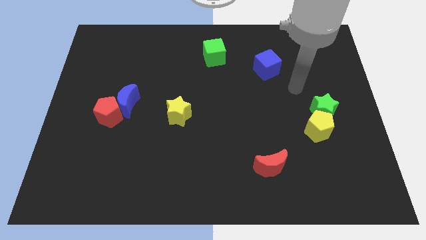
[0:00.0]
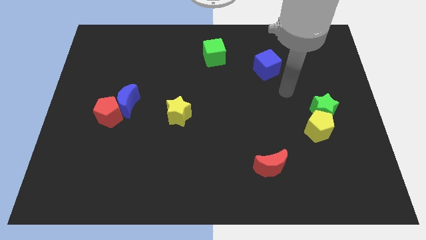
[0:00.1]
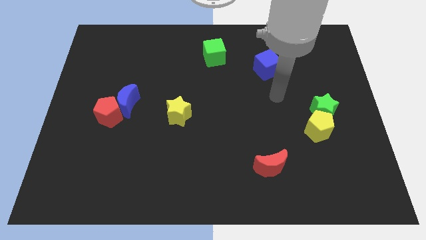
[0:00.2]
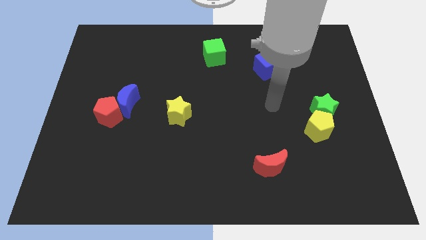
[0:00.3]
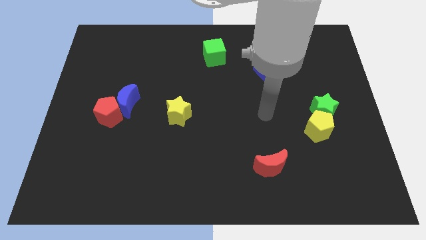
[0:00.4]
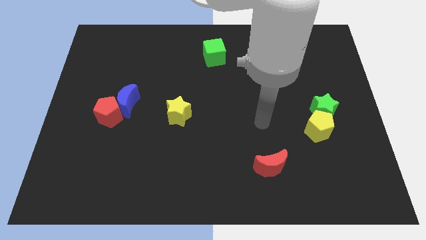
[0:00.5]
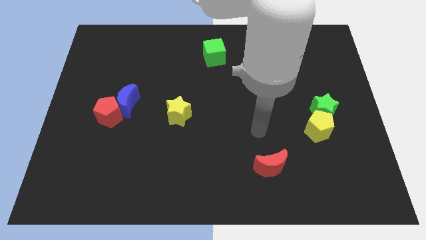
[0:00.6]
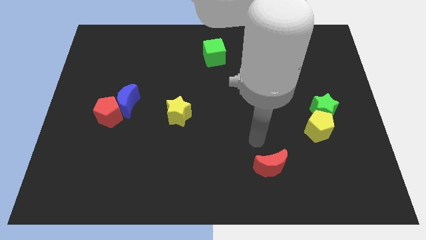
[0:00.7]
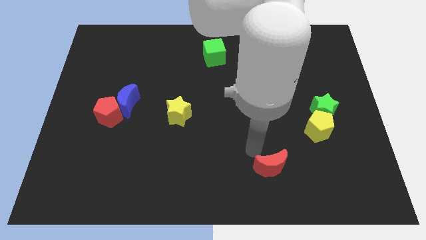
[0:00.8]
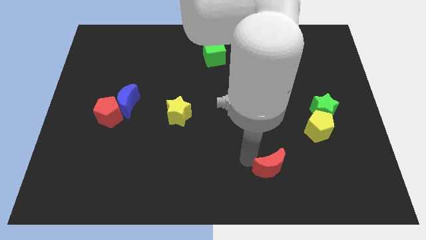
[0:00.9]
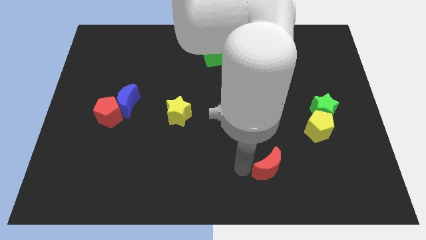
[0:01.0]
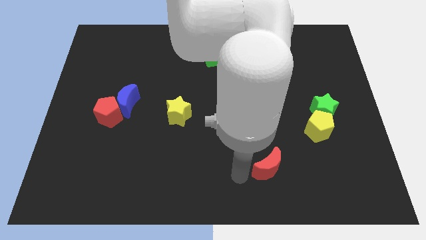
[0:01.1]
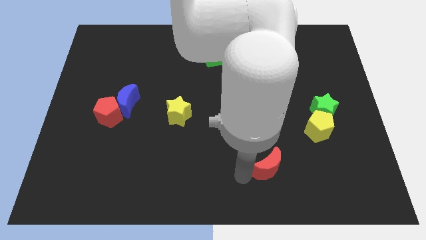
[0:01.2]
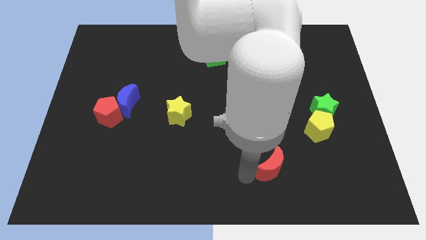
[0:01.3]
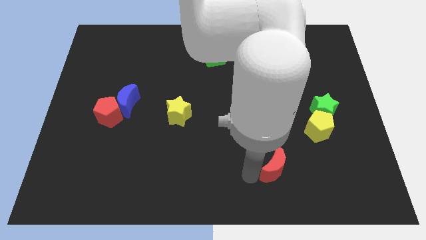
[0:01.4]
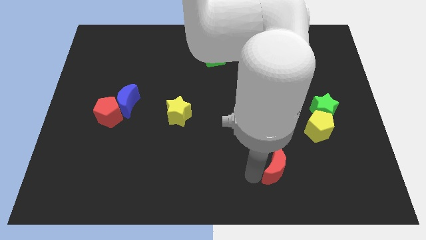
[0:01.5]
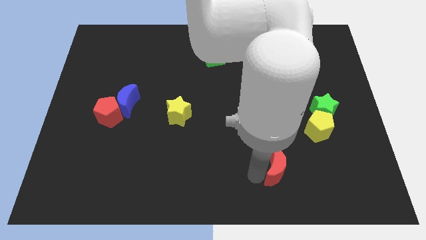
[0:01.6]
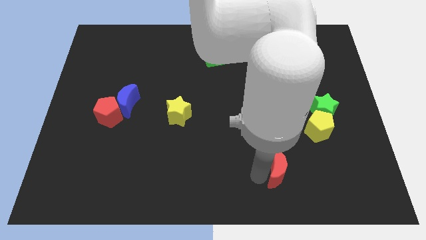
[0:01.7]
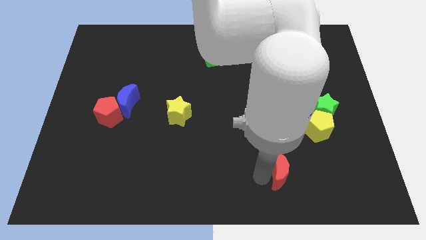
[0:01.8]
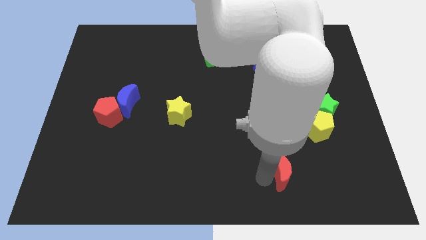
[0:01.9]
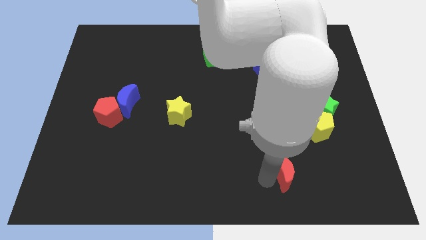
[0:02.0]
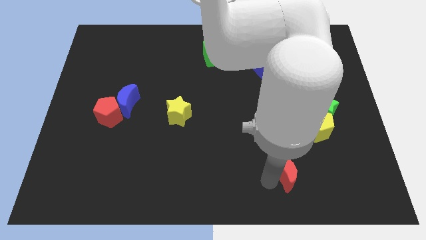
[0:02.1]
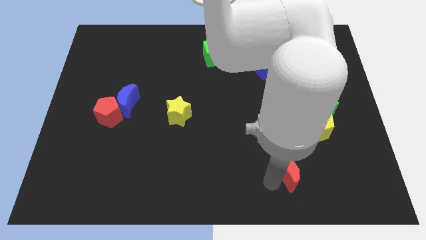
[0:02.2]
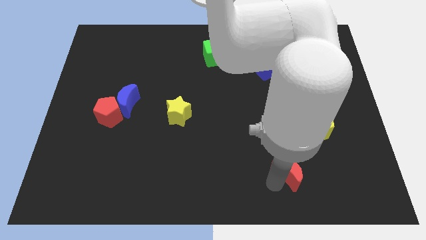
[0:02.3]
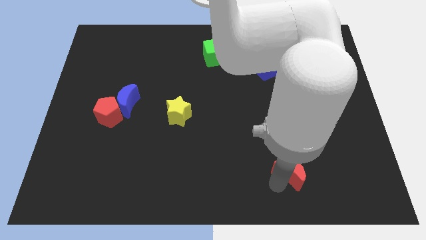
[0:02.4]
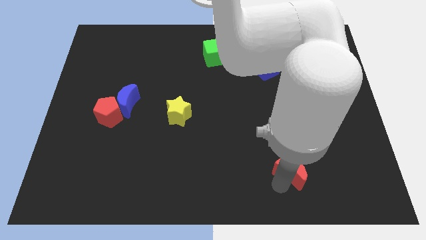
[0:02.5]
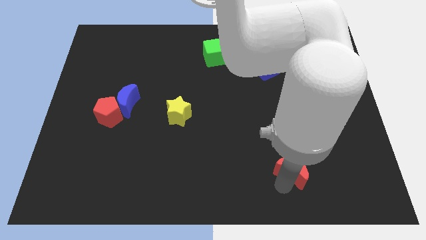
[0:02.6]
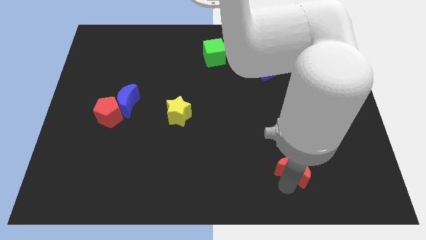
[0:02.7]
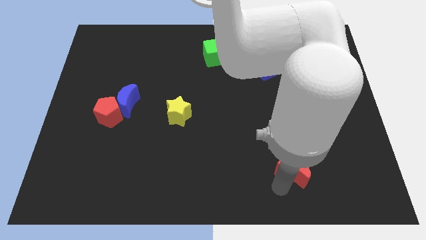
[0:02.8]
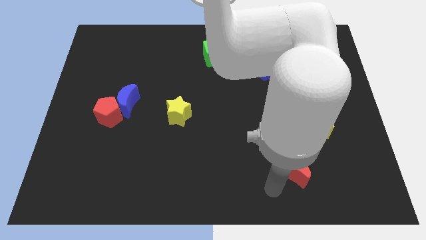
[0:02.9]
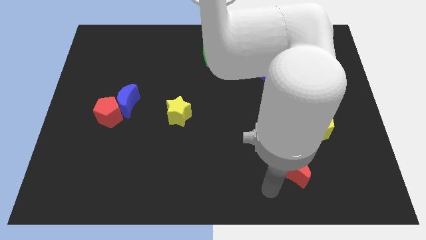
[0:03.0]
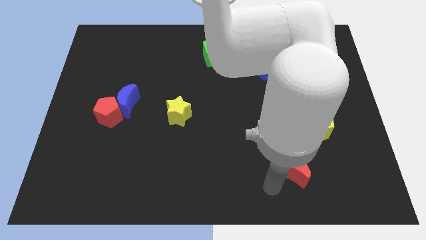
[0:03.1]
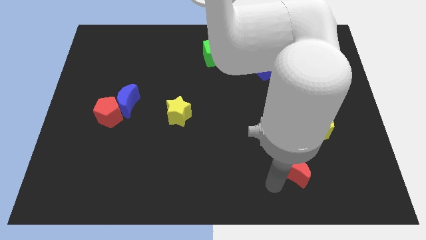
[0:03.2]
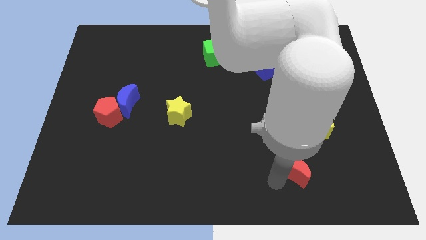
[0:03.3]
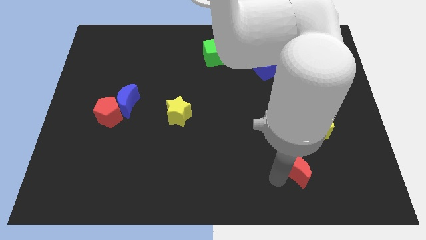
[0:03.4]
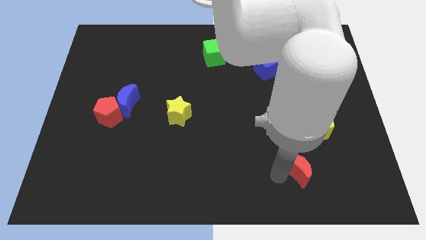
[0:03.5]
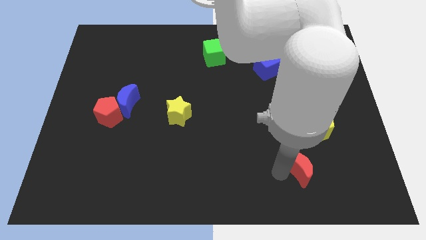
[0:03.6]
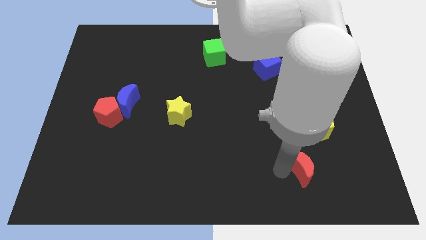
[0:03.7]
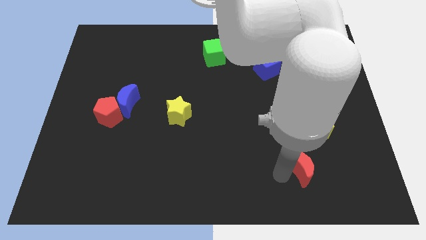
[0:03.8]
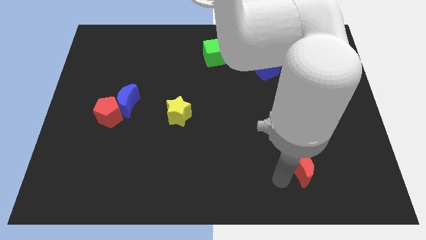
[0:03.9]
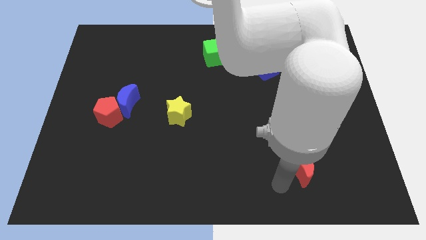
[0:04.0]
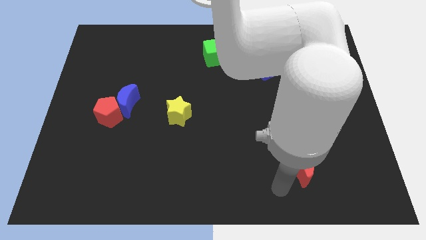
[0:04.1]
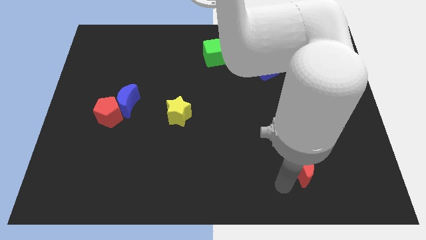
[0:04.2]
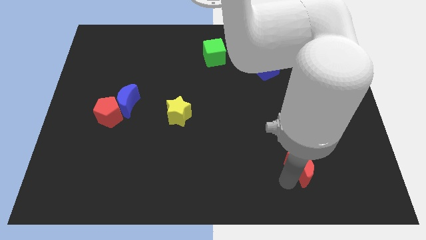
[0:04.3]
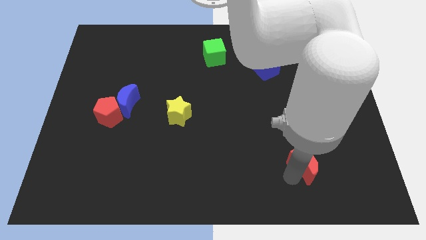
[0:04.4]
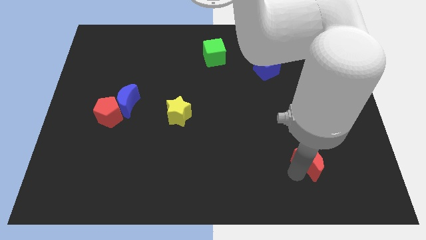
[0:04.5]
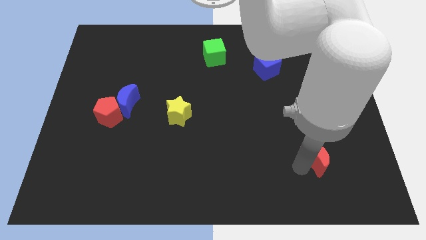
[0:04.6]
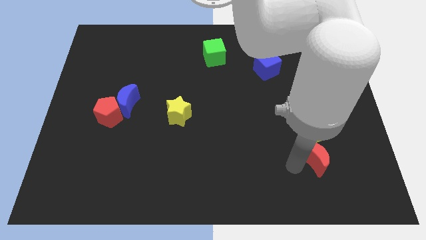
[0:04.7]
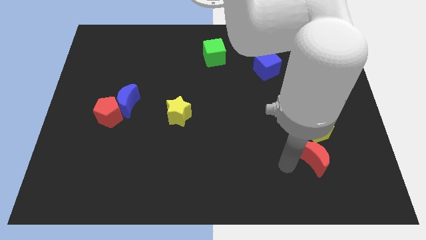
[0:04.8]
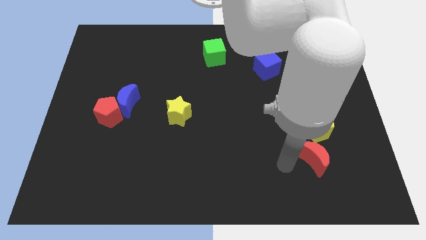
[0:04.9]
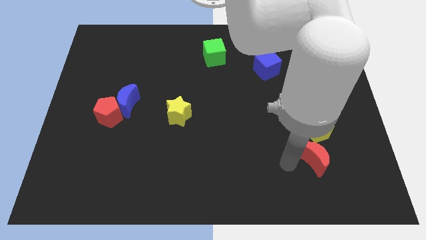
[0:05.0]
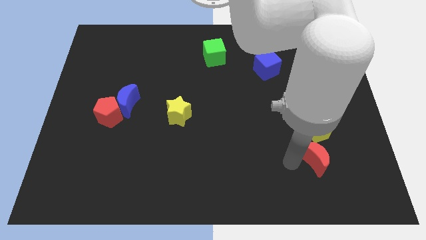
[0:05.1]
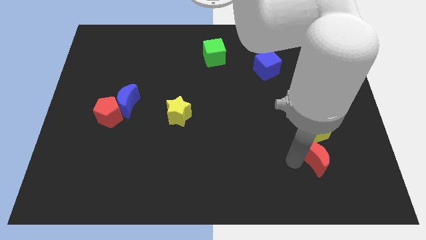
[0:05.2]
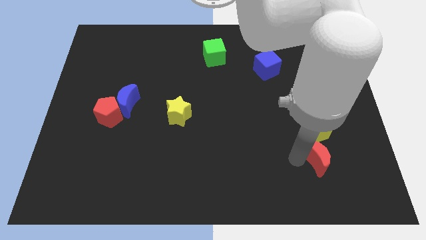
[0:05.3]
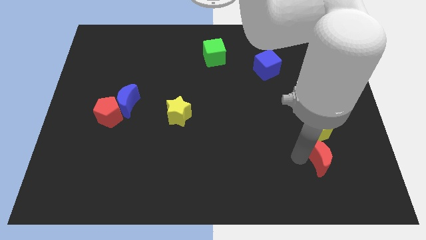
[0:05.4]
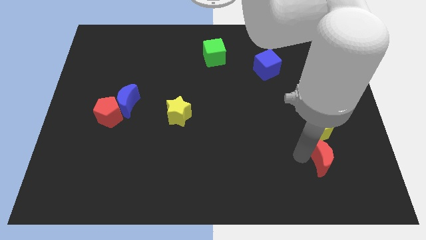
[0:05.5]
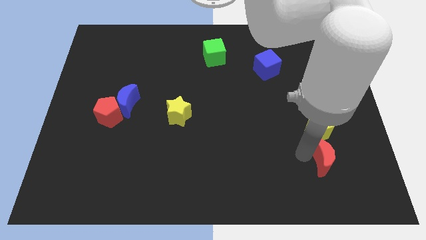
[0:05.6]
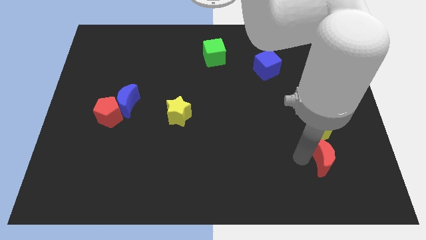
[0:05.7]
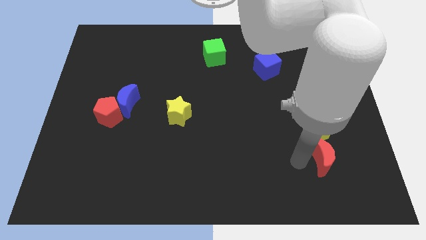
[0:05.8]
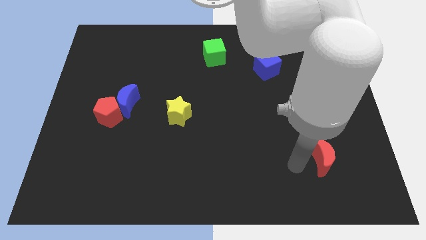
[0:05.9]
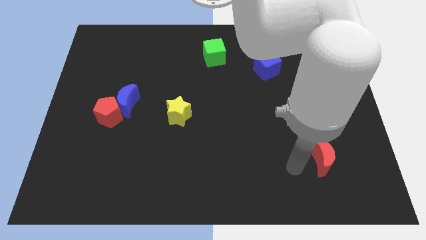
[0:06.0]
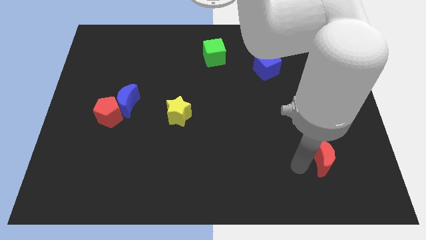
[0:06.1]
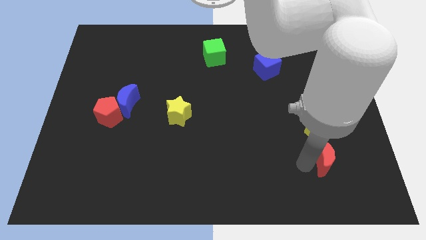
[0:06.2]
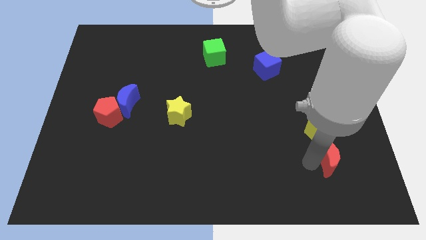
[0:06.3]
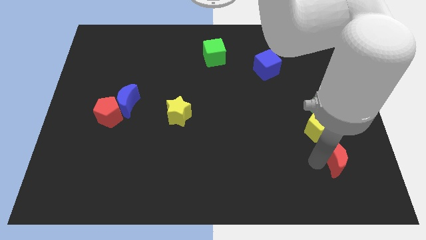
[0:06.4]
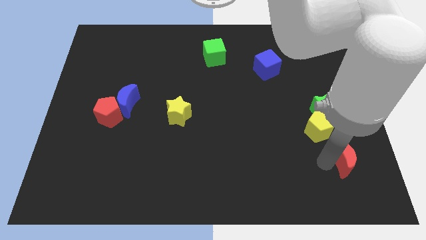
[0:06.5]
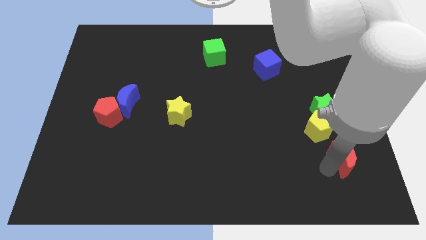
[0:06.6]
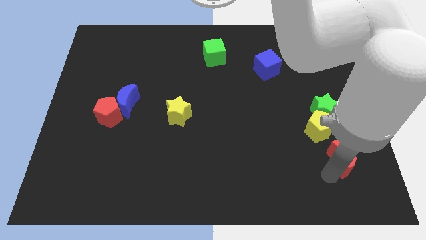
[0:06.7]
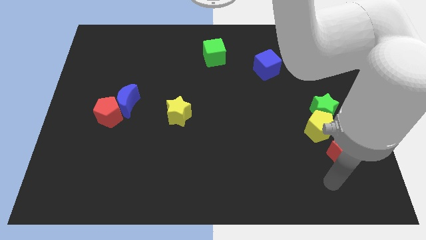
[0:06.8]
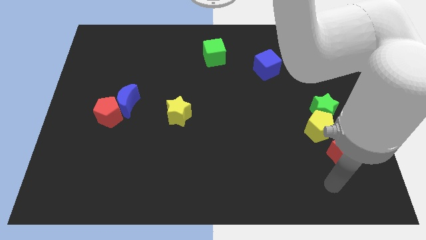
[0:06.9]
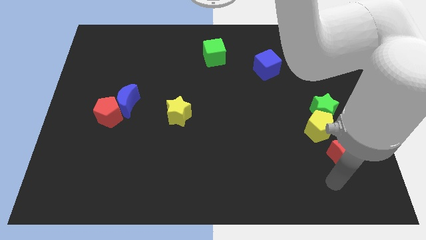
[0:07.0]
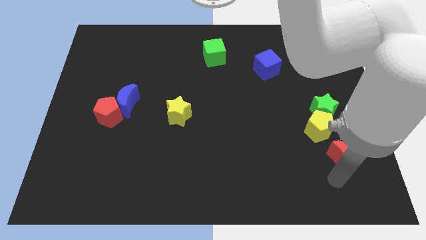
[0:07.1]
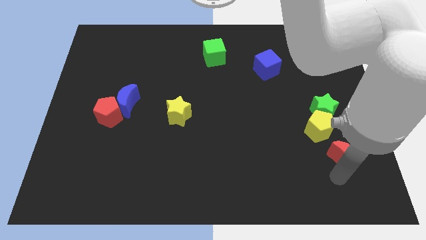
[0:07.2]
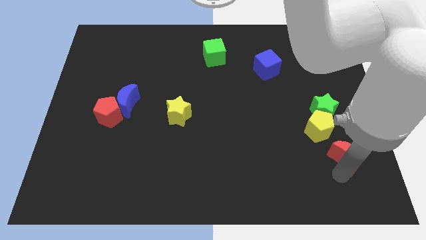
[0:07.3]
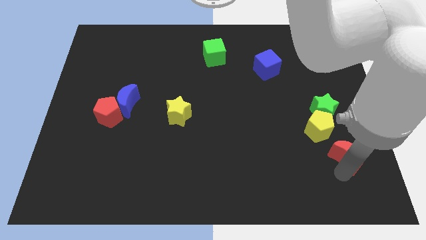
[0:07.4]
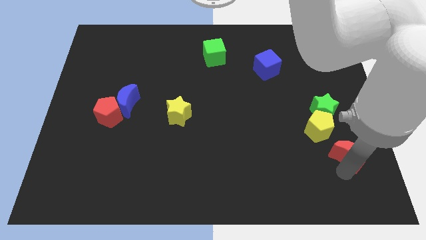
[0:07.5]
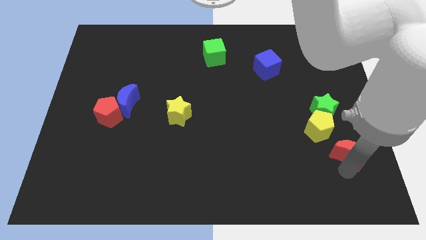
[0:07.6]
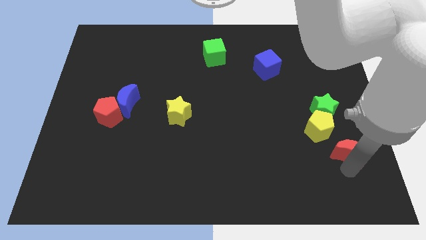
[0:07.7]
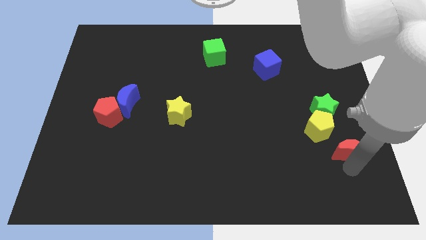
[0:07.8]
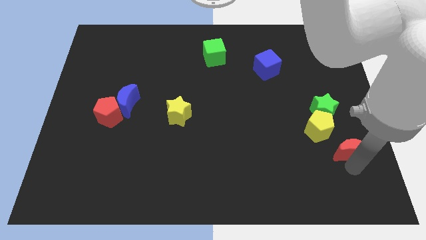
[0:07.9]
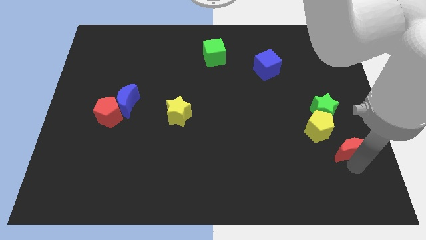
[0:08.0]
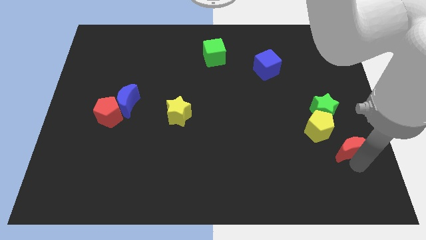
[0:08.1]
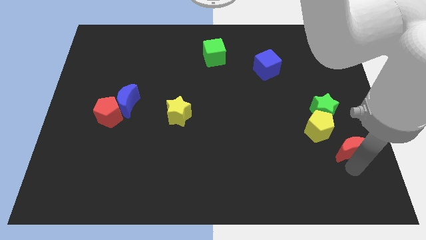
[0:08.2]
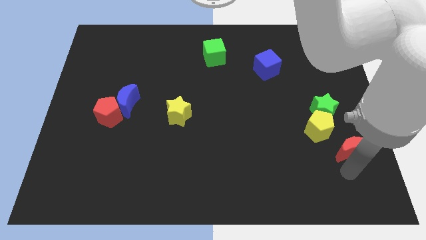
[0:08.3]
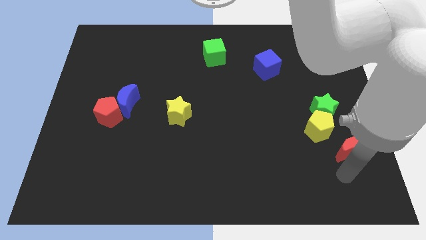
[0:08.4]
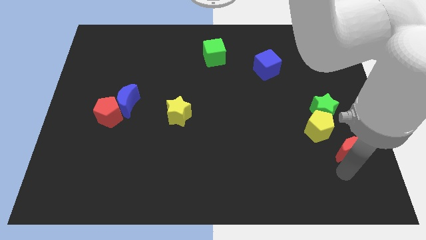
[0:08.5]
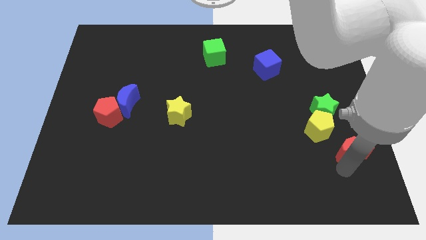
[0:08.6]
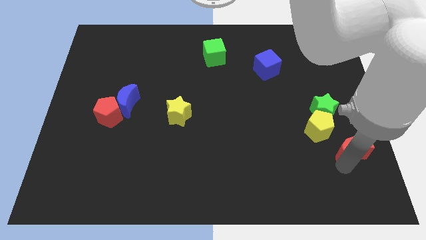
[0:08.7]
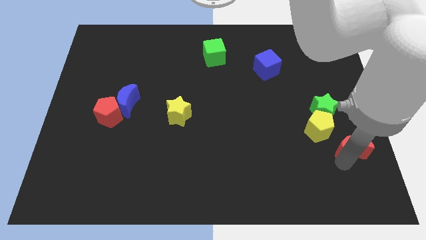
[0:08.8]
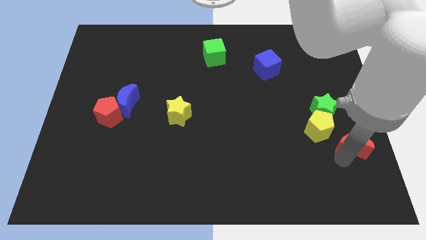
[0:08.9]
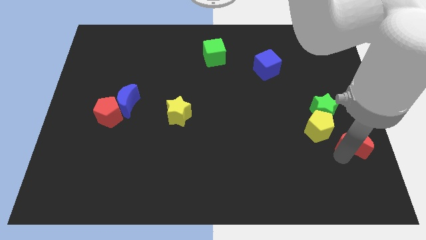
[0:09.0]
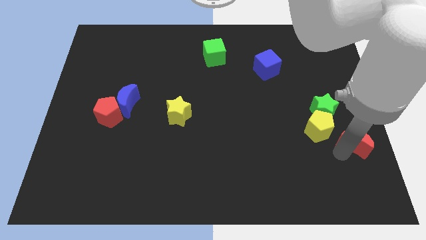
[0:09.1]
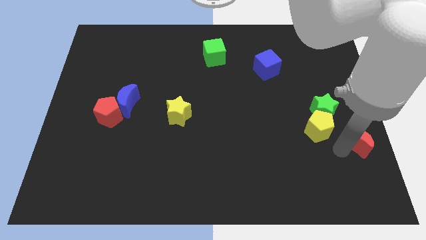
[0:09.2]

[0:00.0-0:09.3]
move the red moon to the center right
